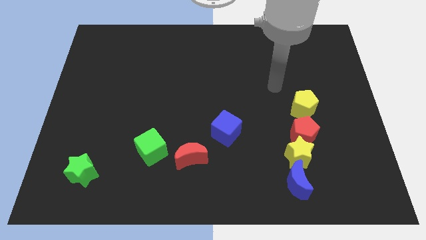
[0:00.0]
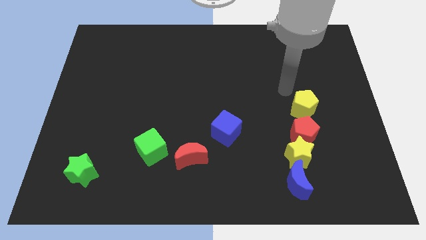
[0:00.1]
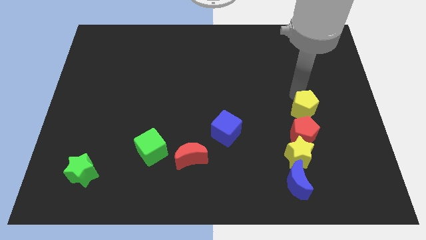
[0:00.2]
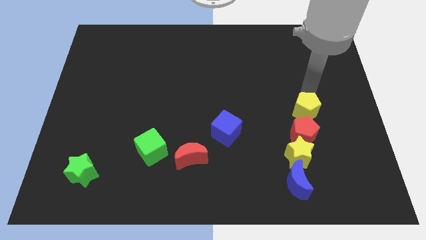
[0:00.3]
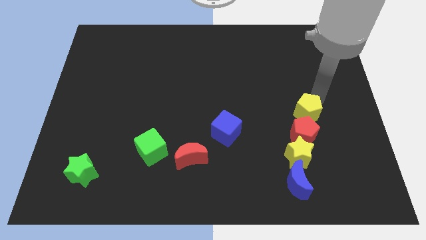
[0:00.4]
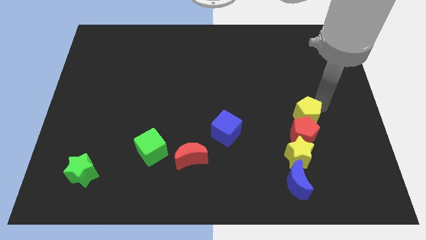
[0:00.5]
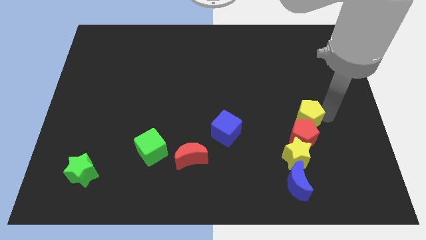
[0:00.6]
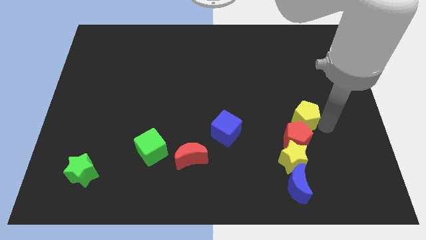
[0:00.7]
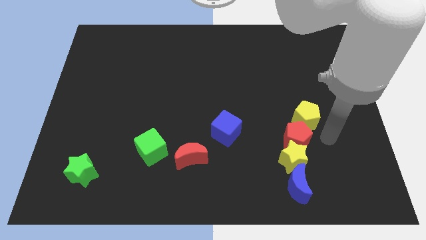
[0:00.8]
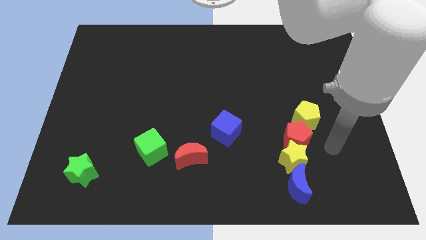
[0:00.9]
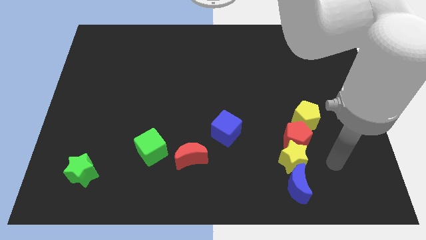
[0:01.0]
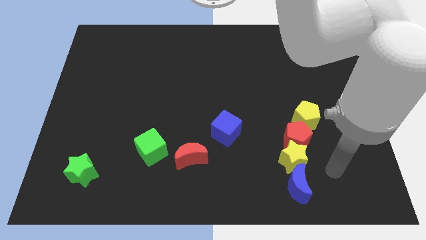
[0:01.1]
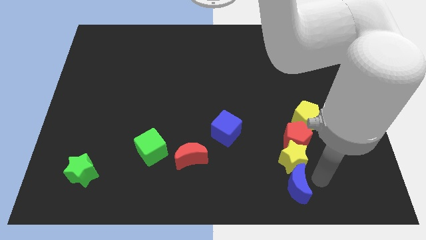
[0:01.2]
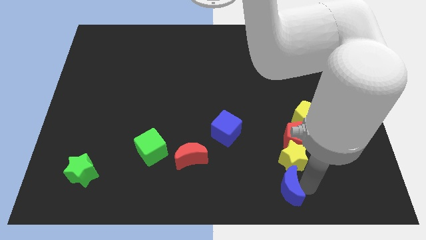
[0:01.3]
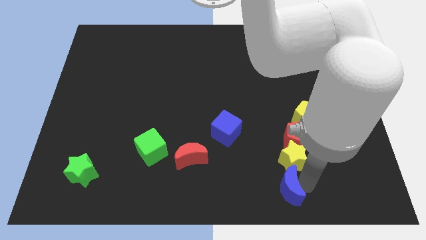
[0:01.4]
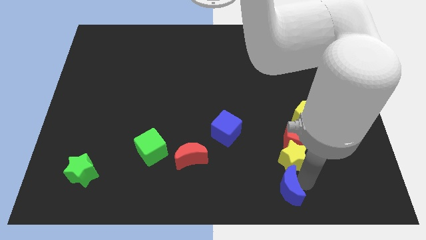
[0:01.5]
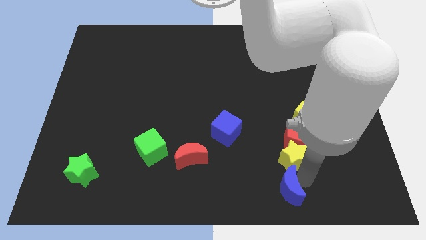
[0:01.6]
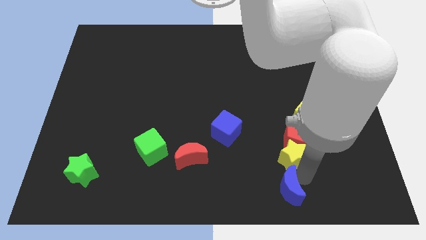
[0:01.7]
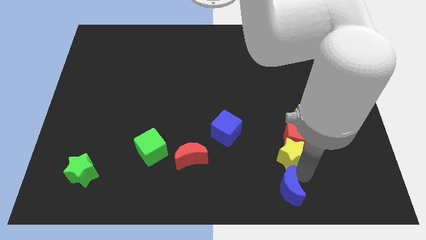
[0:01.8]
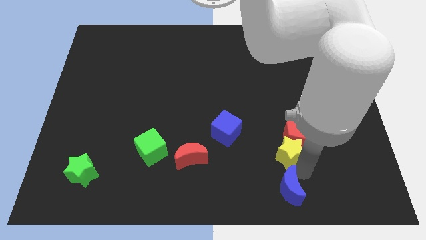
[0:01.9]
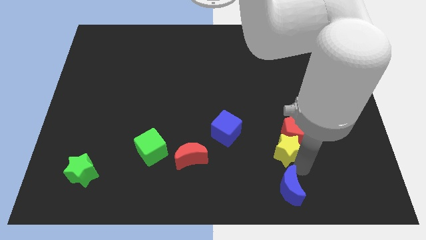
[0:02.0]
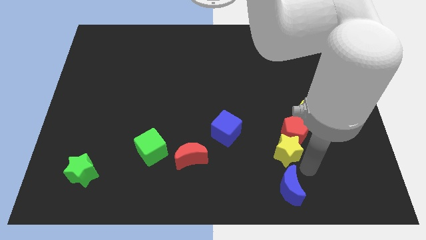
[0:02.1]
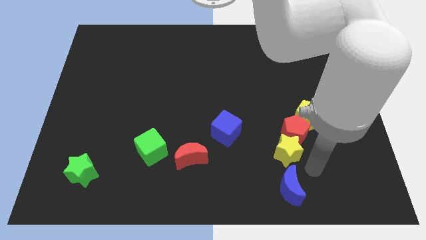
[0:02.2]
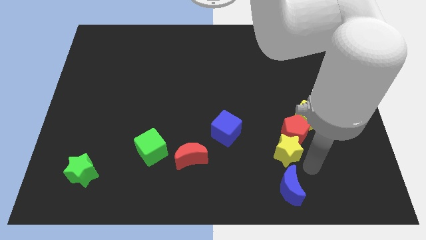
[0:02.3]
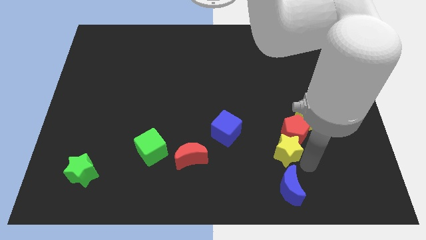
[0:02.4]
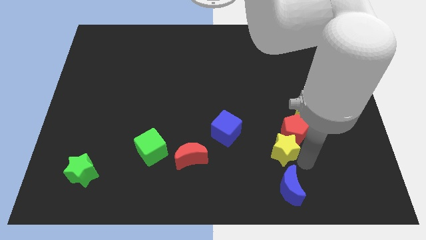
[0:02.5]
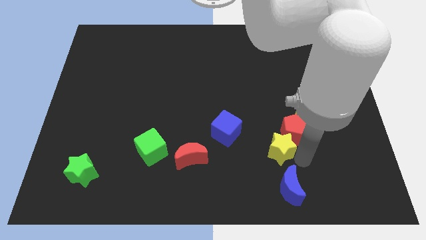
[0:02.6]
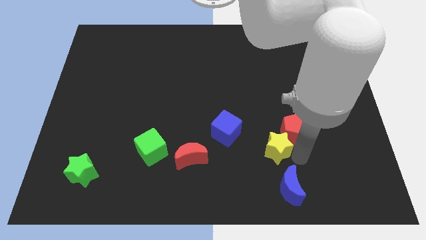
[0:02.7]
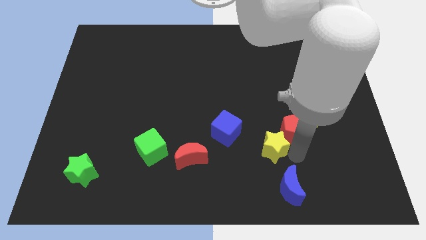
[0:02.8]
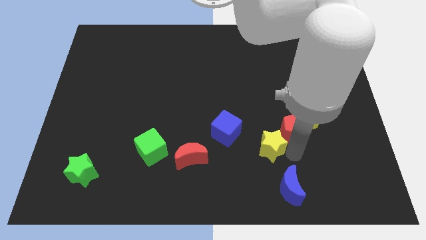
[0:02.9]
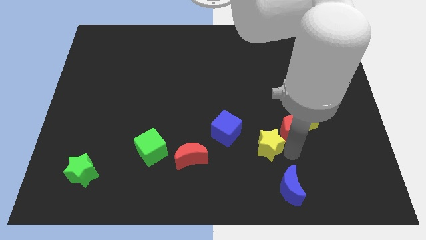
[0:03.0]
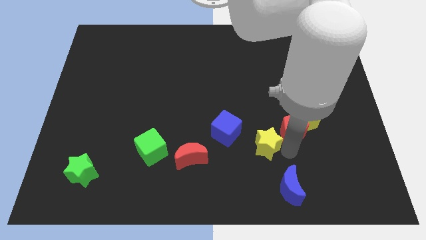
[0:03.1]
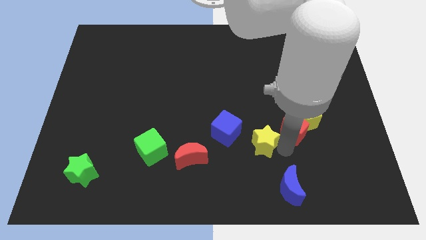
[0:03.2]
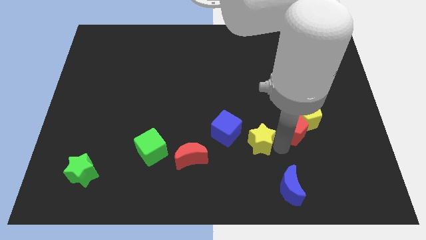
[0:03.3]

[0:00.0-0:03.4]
move the yellow star upwards and to the left diagonally somewhat

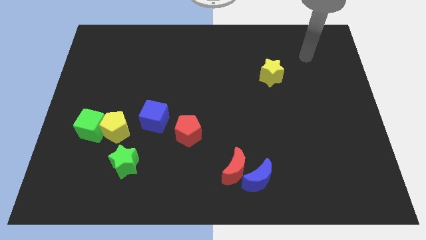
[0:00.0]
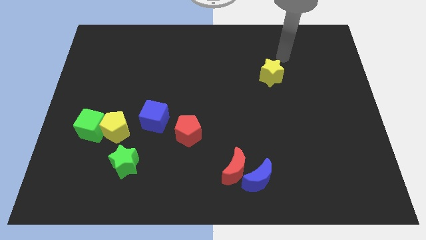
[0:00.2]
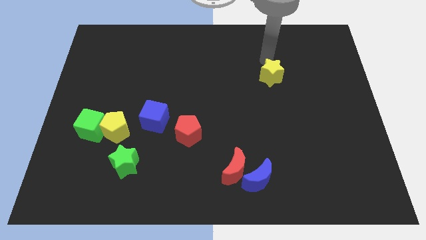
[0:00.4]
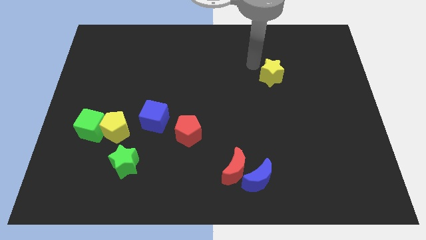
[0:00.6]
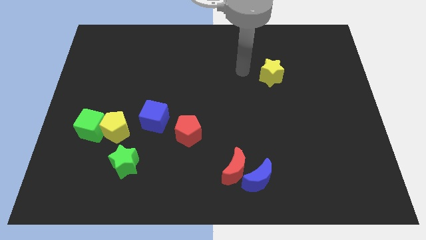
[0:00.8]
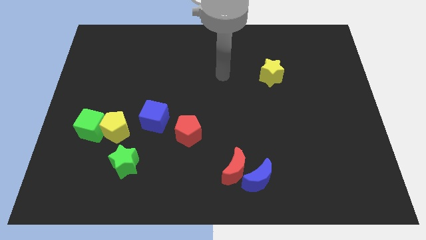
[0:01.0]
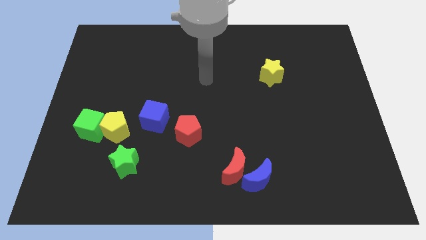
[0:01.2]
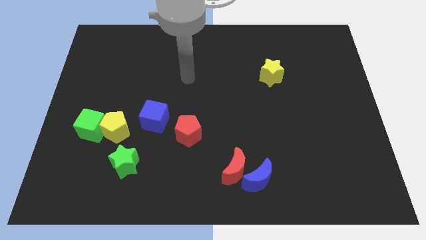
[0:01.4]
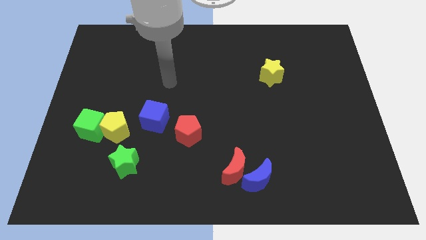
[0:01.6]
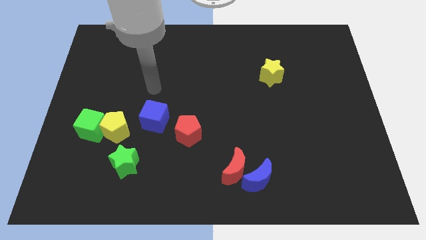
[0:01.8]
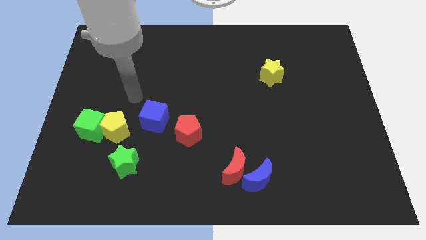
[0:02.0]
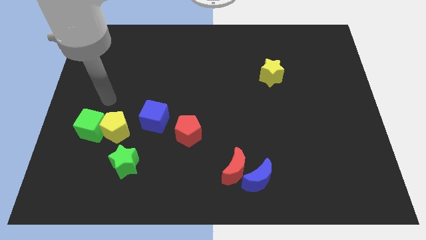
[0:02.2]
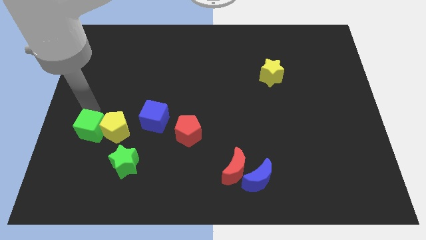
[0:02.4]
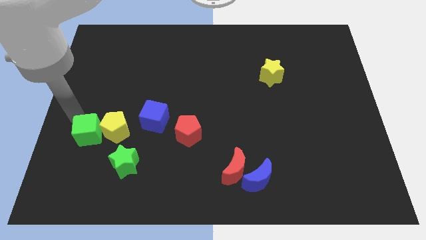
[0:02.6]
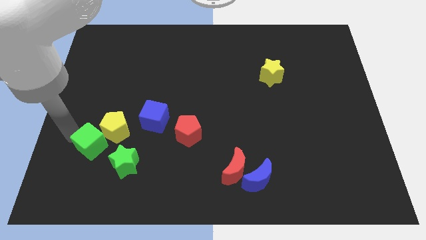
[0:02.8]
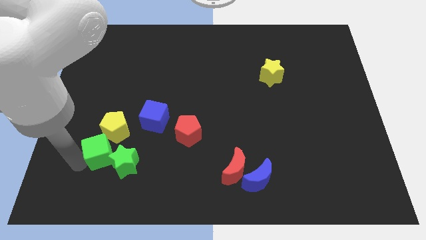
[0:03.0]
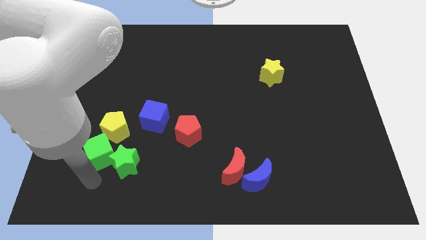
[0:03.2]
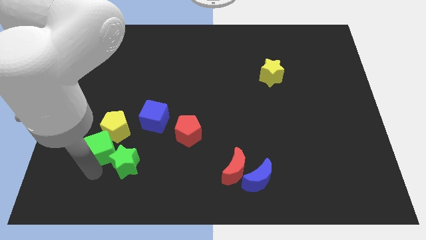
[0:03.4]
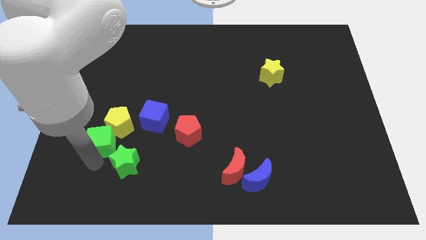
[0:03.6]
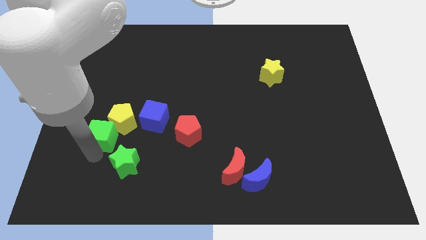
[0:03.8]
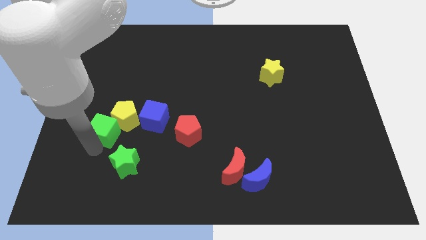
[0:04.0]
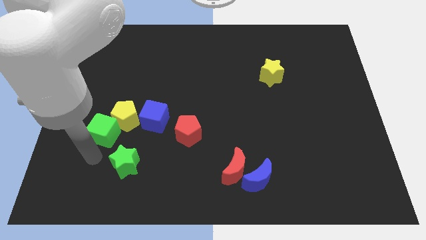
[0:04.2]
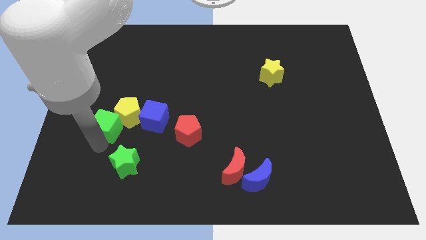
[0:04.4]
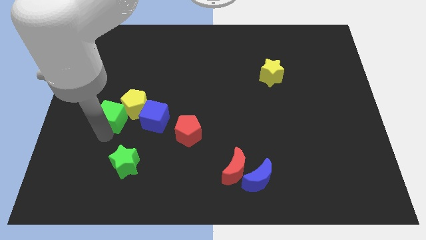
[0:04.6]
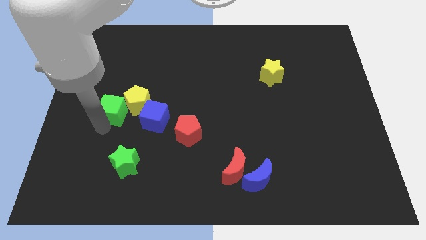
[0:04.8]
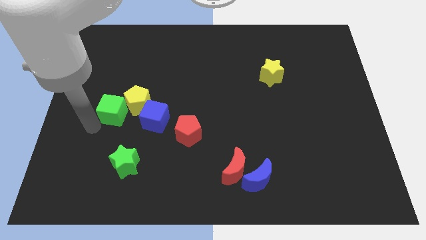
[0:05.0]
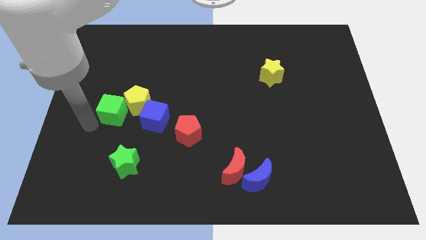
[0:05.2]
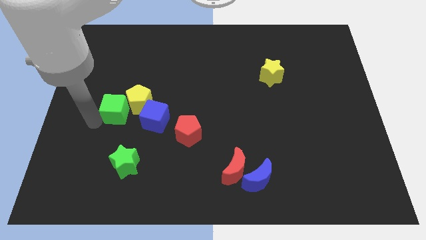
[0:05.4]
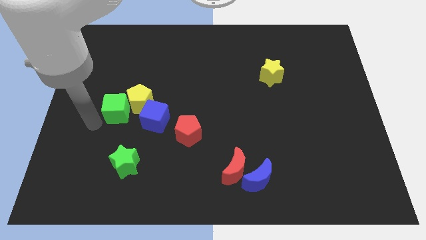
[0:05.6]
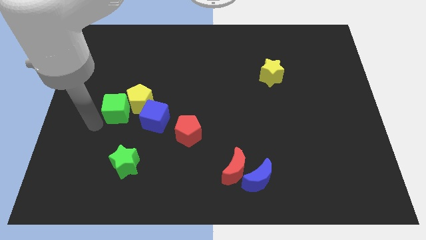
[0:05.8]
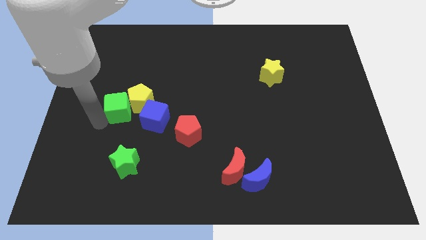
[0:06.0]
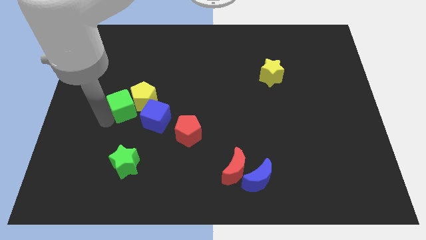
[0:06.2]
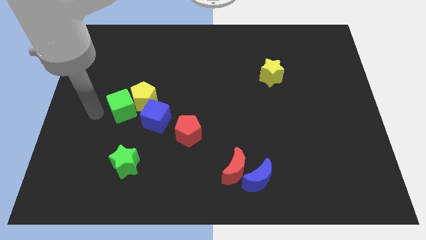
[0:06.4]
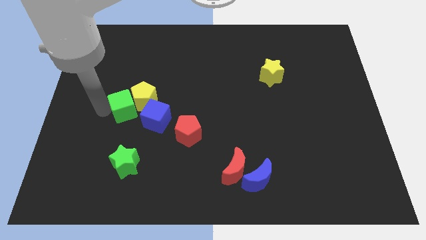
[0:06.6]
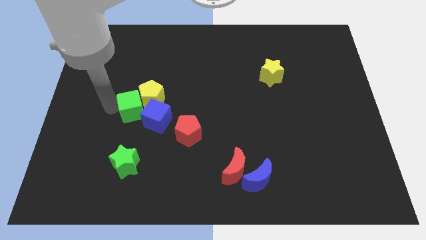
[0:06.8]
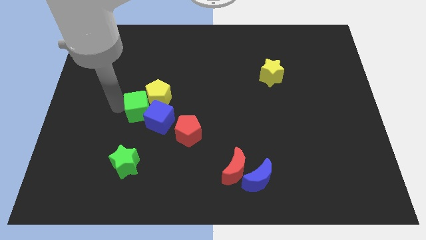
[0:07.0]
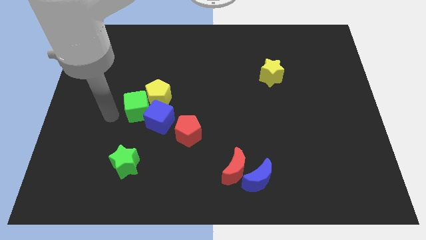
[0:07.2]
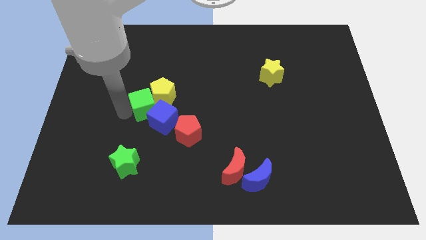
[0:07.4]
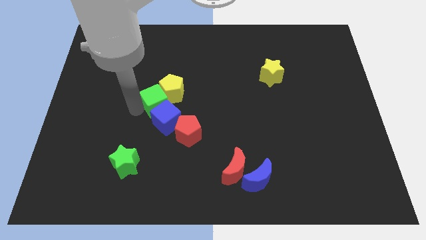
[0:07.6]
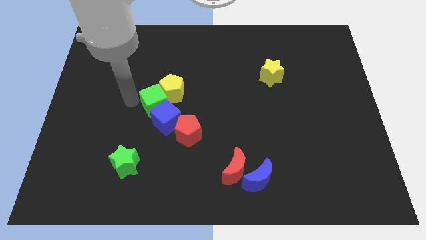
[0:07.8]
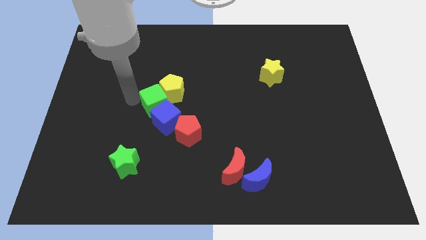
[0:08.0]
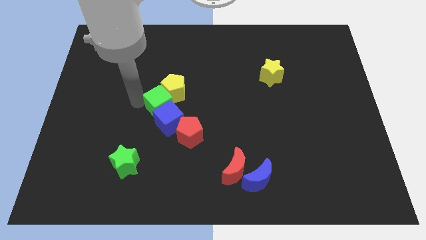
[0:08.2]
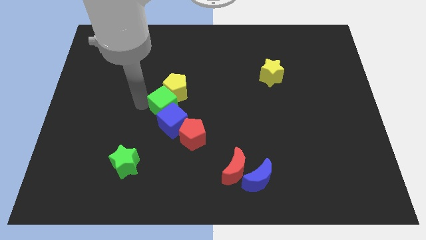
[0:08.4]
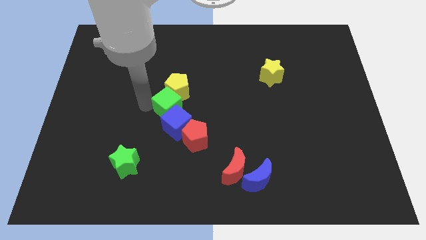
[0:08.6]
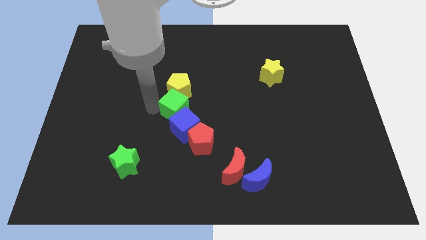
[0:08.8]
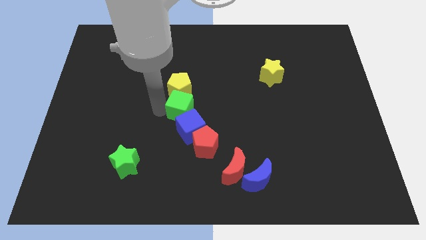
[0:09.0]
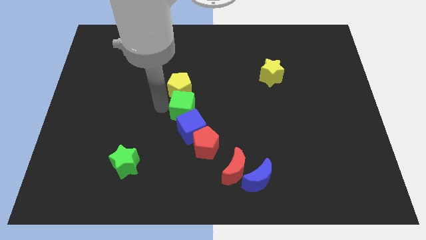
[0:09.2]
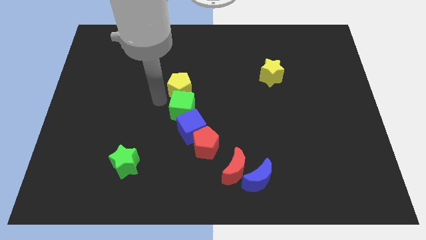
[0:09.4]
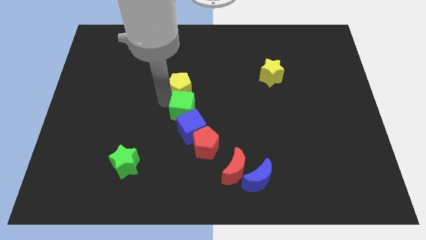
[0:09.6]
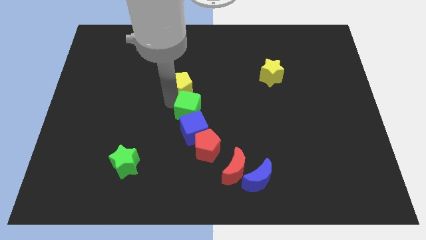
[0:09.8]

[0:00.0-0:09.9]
push the green cube right
